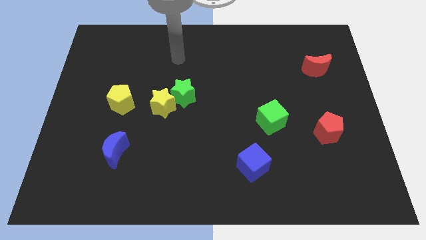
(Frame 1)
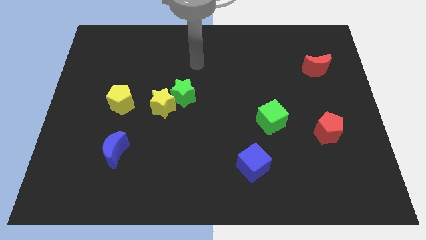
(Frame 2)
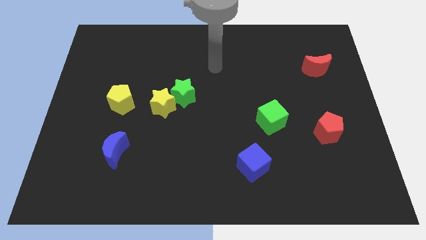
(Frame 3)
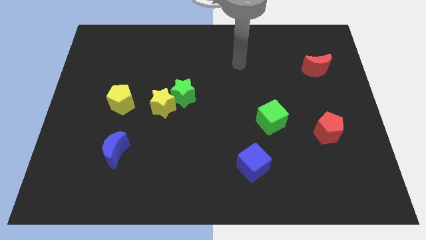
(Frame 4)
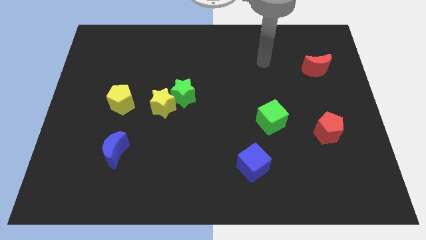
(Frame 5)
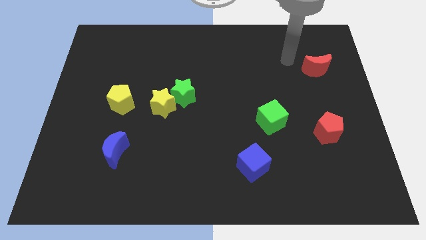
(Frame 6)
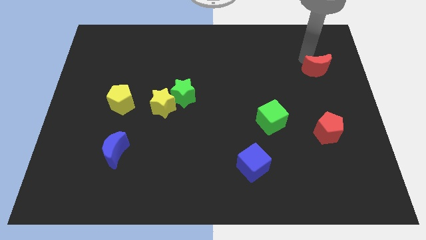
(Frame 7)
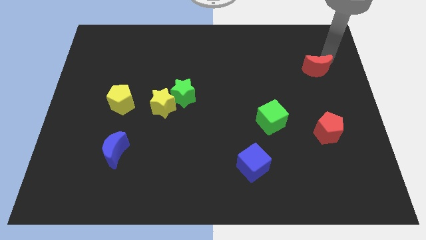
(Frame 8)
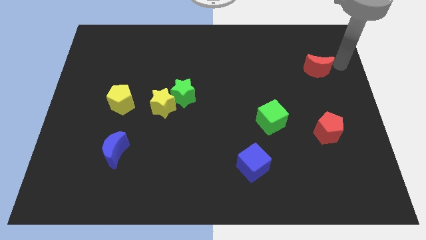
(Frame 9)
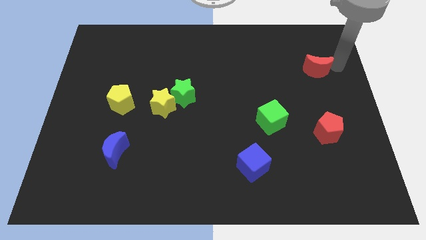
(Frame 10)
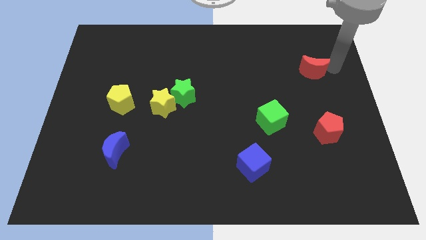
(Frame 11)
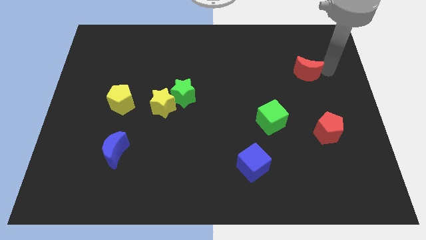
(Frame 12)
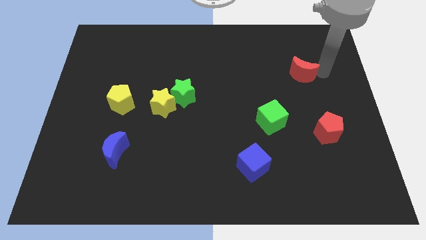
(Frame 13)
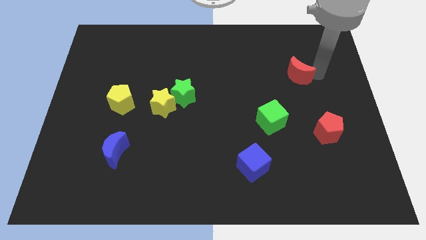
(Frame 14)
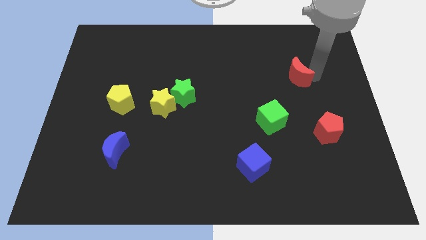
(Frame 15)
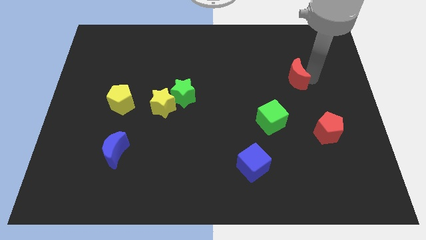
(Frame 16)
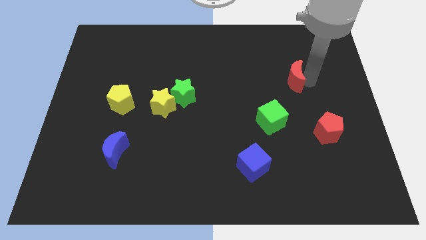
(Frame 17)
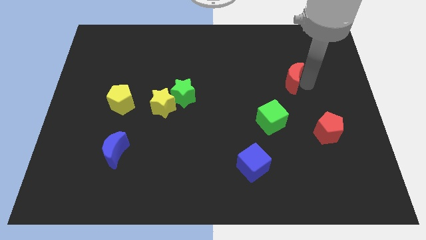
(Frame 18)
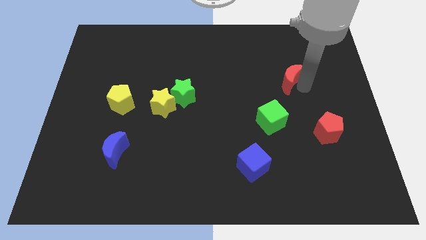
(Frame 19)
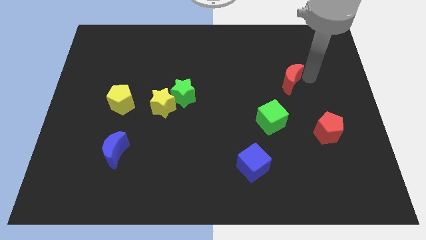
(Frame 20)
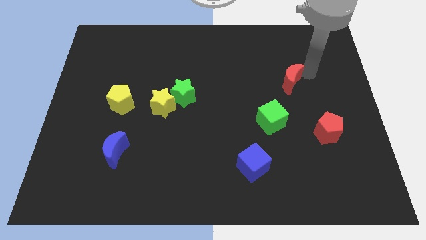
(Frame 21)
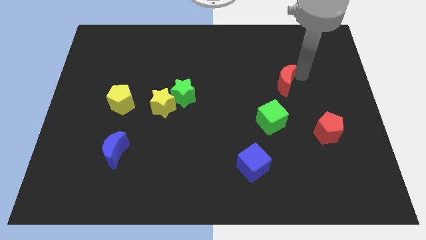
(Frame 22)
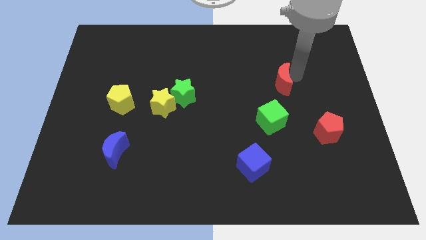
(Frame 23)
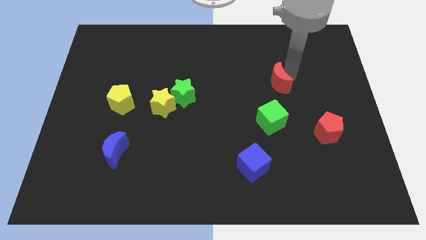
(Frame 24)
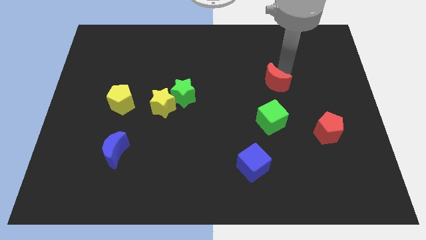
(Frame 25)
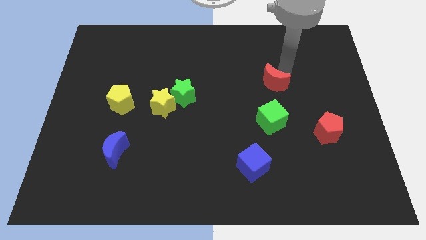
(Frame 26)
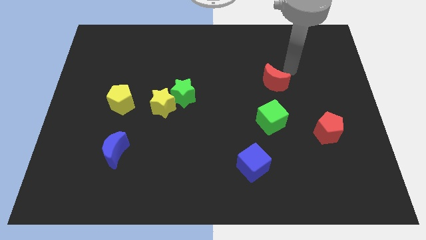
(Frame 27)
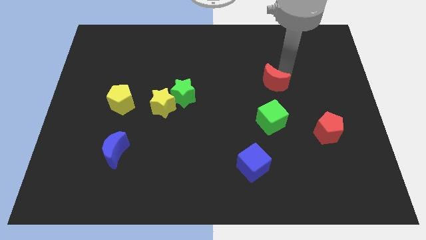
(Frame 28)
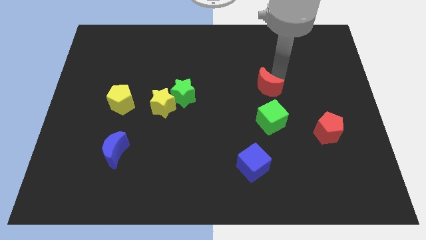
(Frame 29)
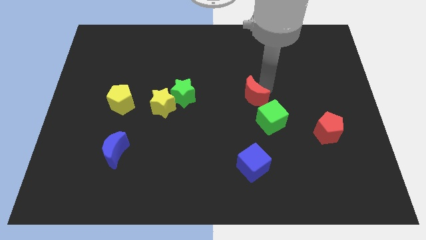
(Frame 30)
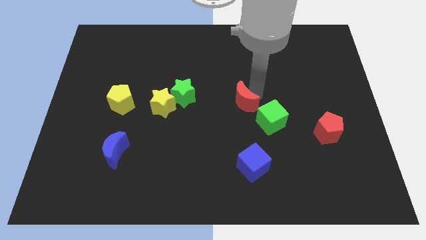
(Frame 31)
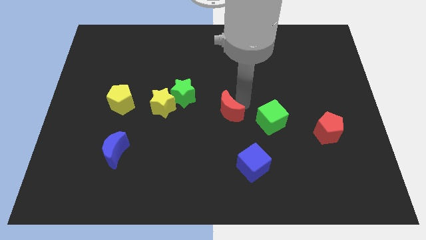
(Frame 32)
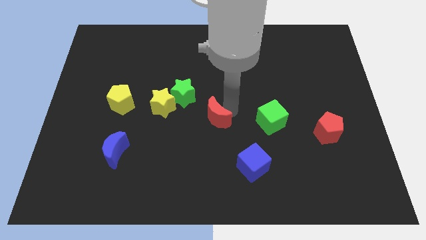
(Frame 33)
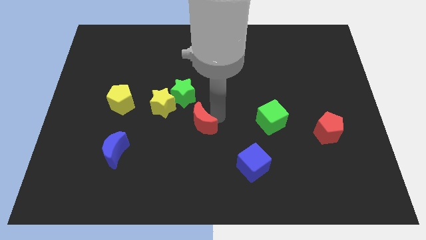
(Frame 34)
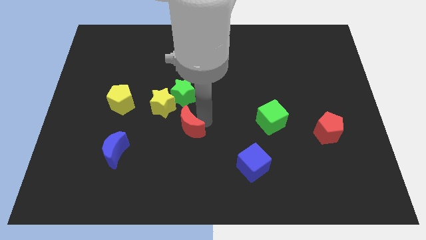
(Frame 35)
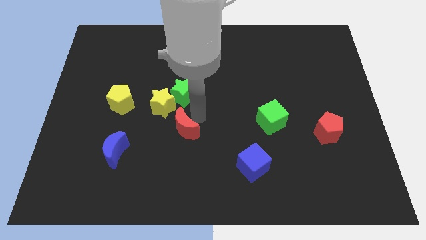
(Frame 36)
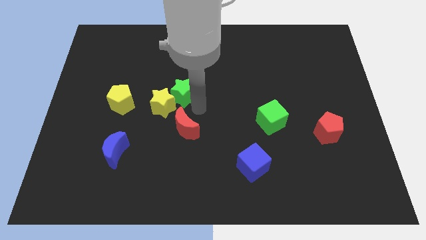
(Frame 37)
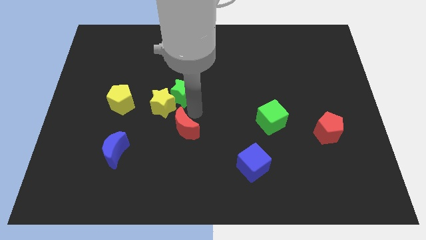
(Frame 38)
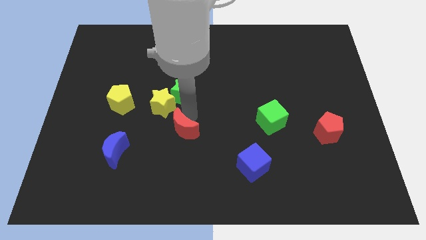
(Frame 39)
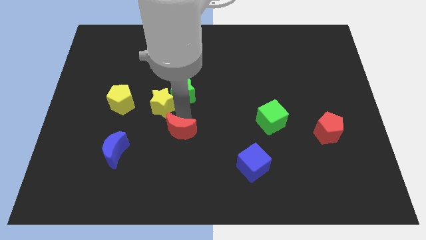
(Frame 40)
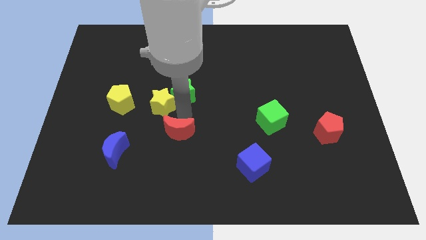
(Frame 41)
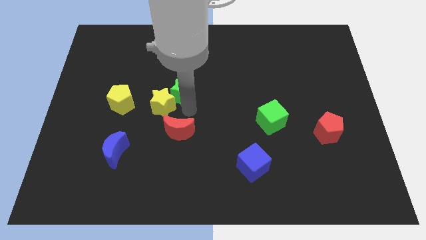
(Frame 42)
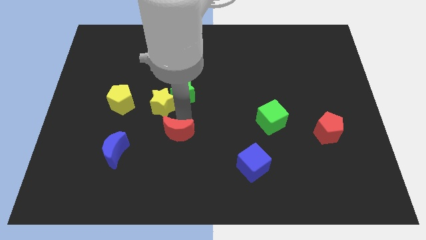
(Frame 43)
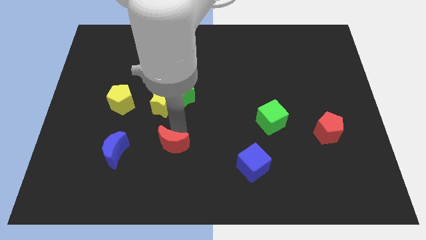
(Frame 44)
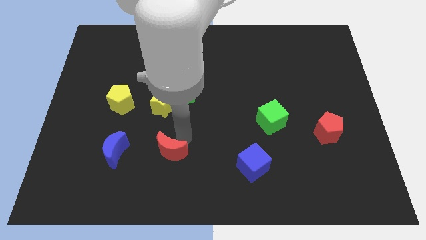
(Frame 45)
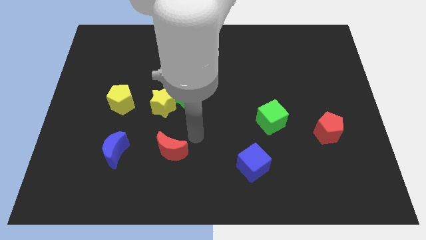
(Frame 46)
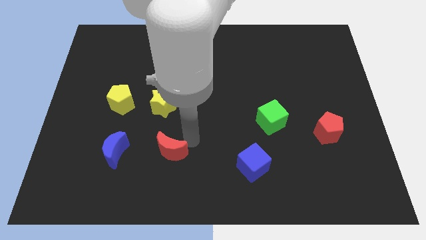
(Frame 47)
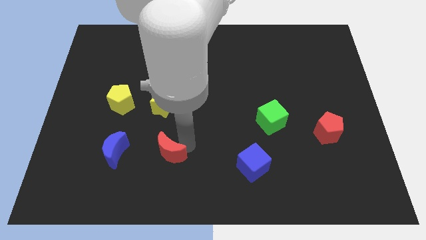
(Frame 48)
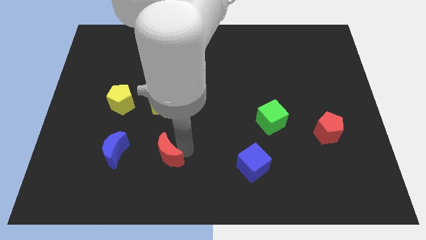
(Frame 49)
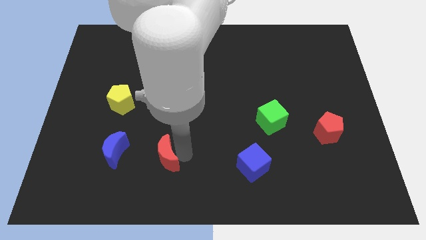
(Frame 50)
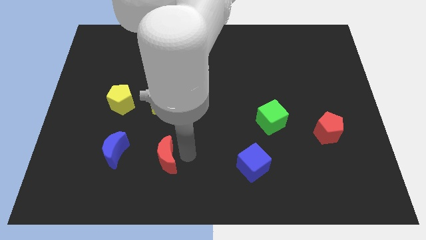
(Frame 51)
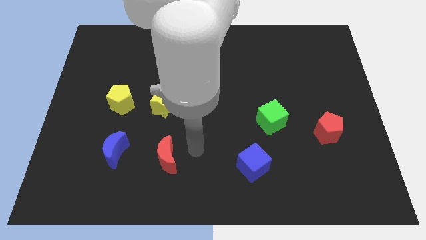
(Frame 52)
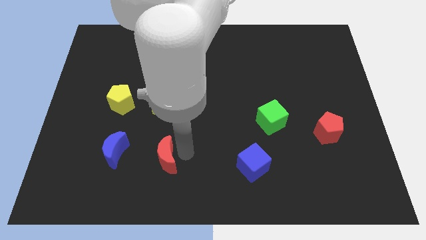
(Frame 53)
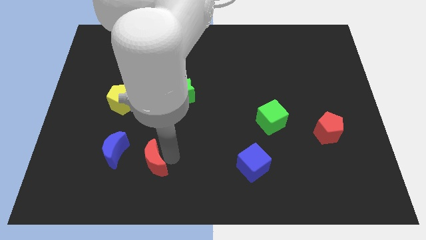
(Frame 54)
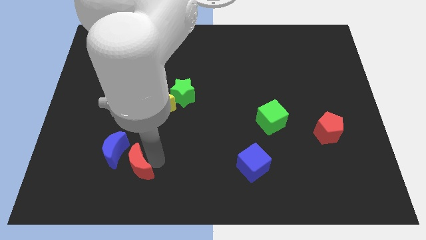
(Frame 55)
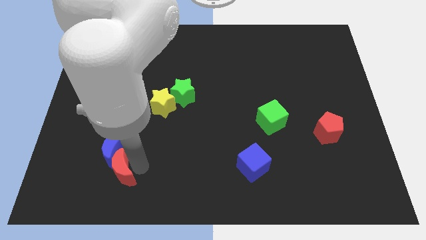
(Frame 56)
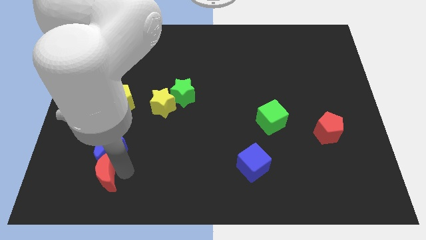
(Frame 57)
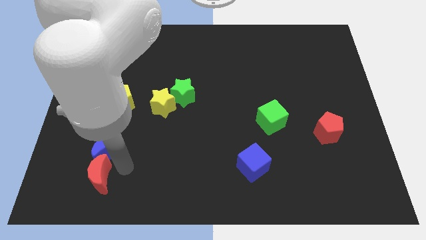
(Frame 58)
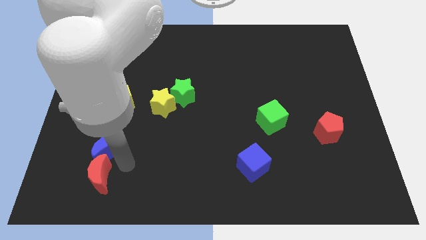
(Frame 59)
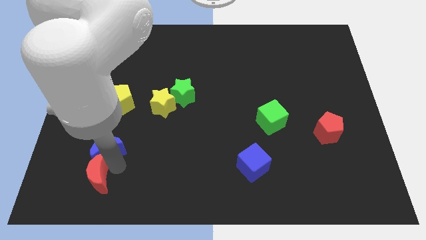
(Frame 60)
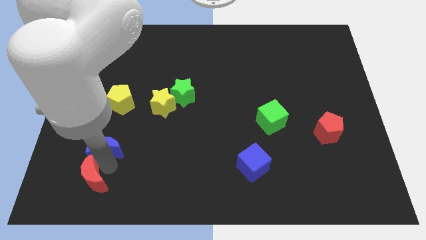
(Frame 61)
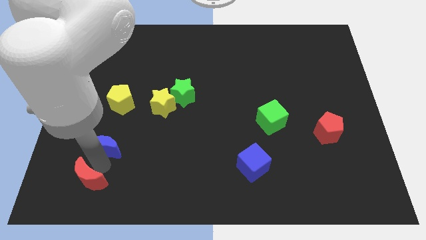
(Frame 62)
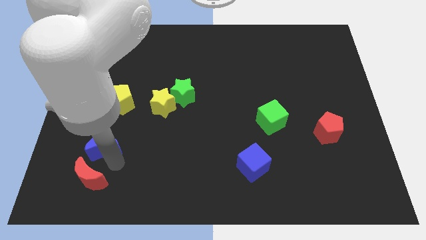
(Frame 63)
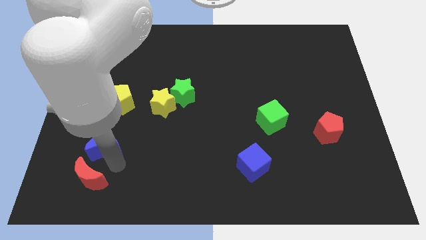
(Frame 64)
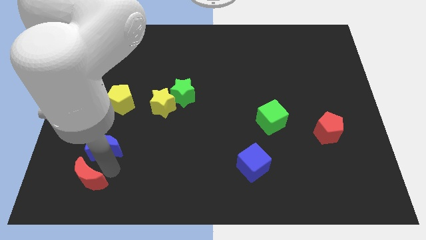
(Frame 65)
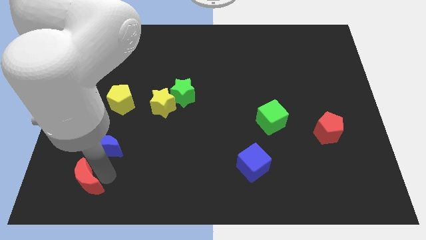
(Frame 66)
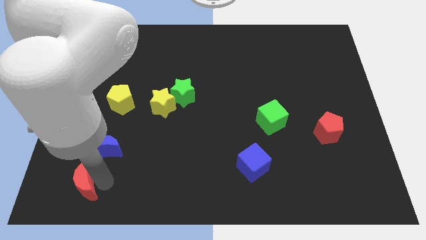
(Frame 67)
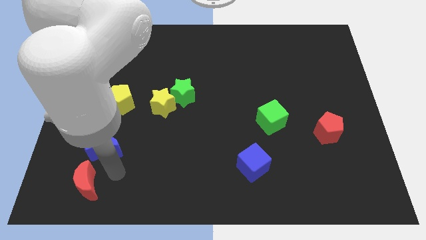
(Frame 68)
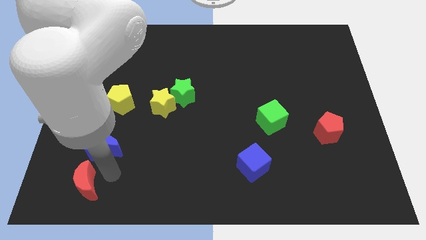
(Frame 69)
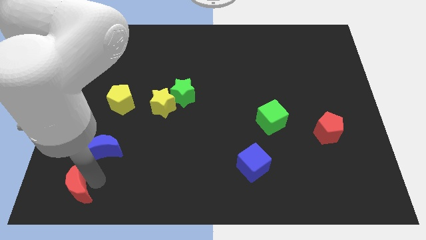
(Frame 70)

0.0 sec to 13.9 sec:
push the red moon to the bottom left corner
